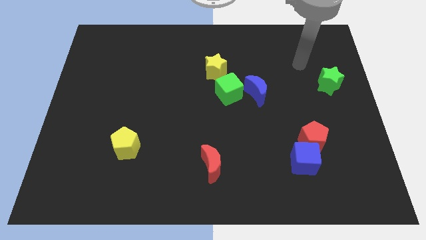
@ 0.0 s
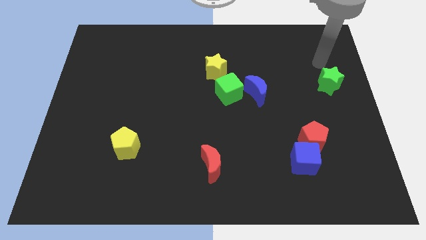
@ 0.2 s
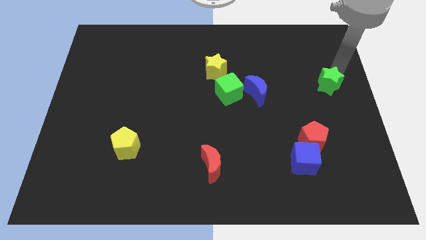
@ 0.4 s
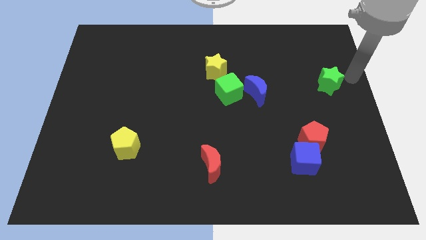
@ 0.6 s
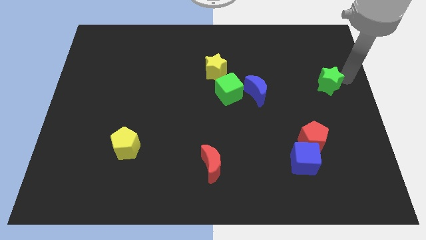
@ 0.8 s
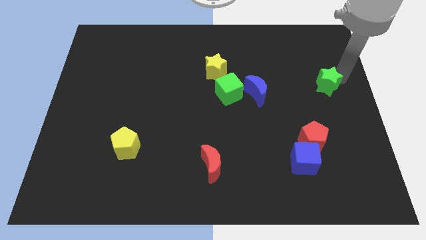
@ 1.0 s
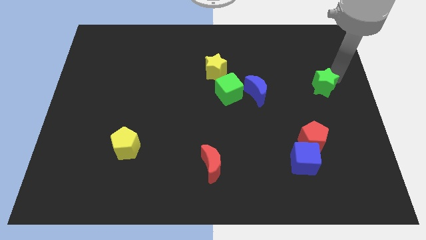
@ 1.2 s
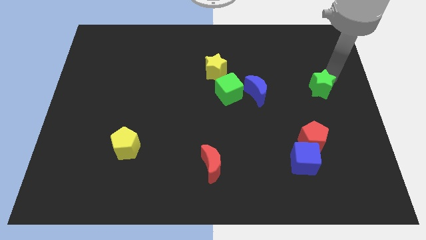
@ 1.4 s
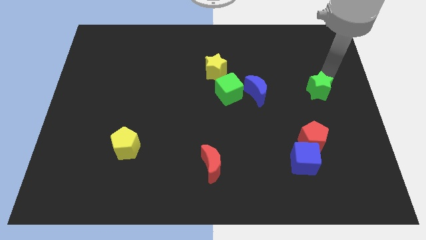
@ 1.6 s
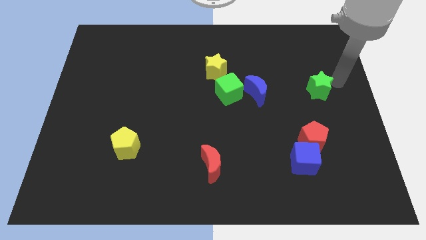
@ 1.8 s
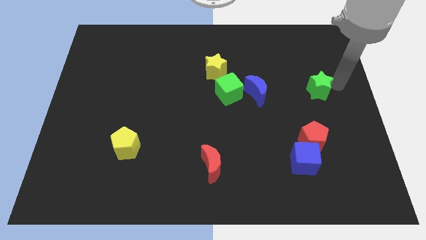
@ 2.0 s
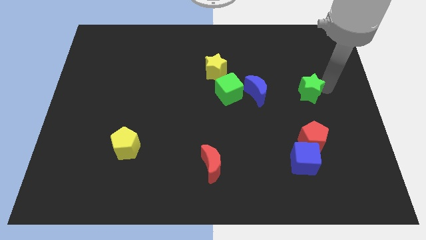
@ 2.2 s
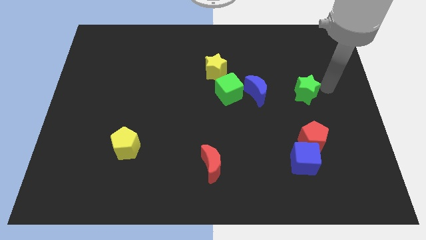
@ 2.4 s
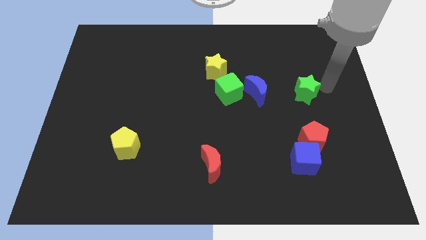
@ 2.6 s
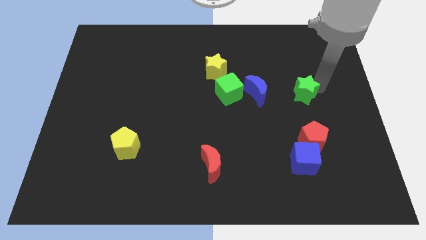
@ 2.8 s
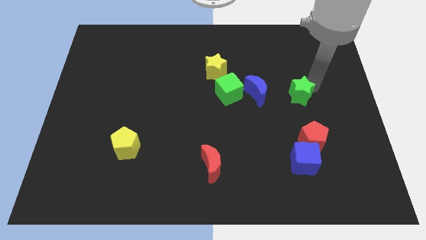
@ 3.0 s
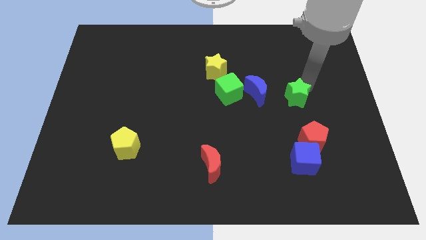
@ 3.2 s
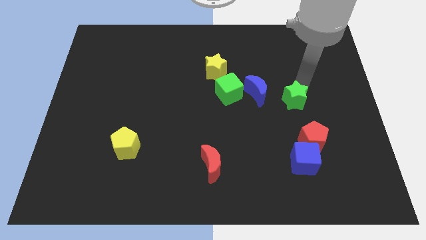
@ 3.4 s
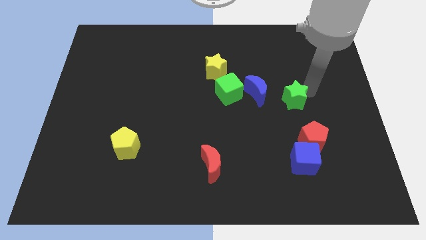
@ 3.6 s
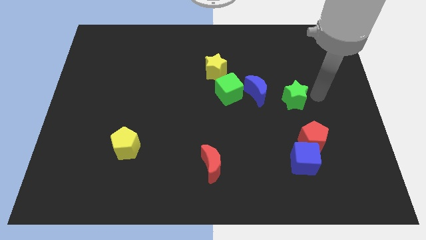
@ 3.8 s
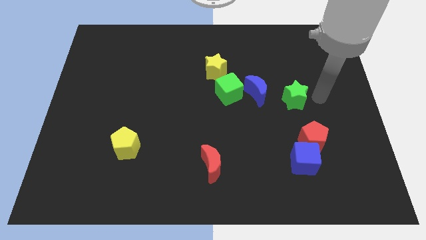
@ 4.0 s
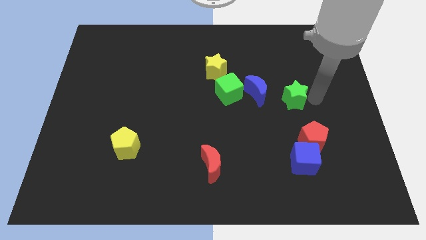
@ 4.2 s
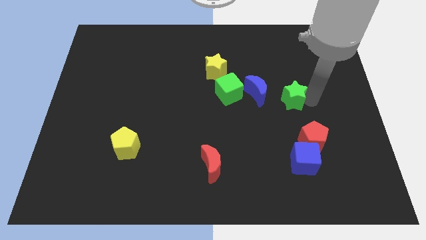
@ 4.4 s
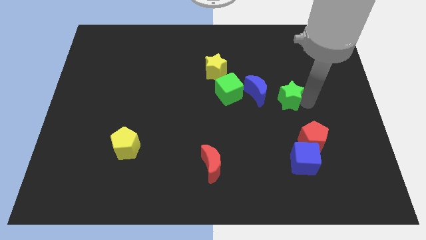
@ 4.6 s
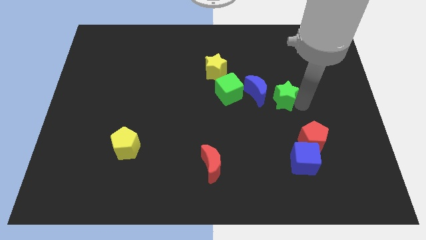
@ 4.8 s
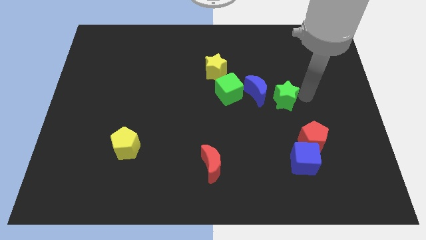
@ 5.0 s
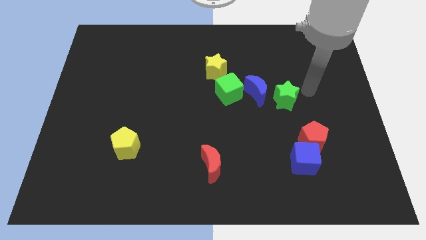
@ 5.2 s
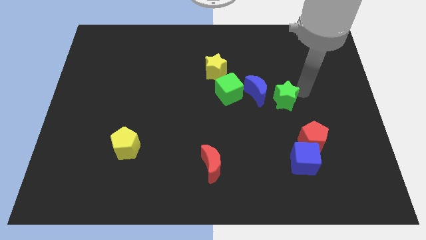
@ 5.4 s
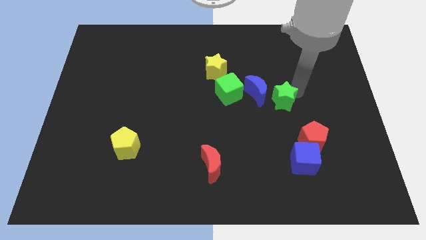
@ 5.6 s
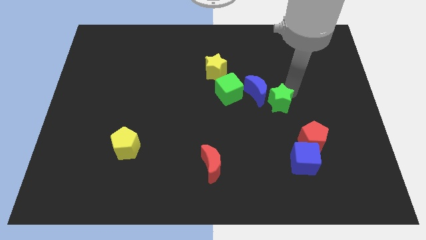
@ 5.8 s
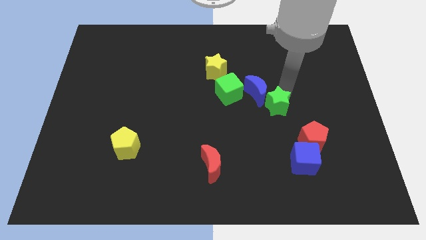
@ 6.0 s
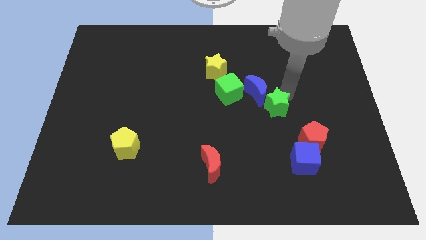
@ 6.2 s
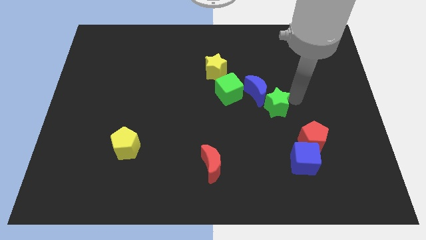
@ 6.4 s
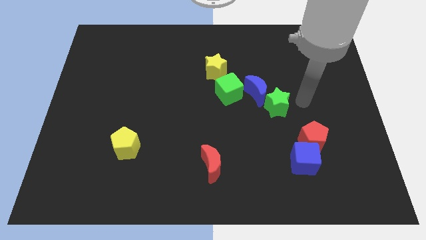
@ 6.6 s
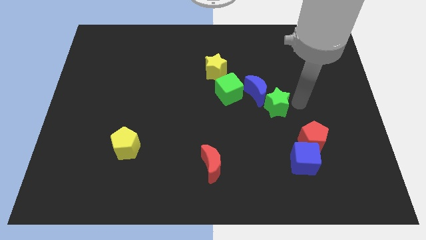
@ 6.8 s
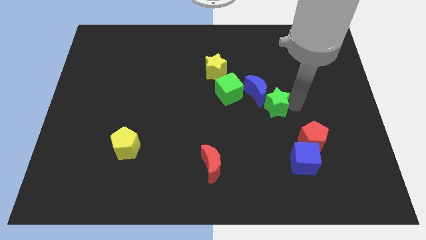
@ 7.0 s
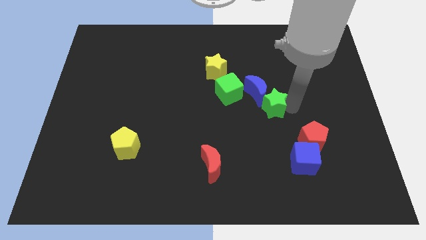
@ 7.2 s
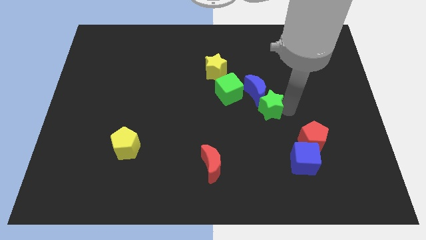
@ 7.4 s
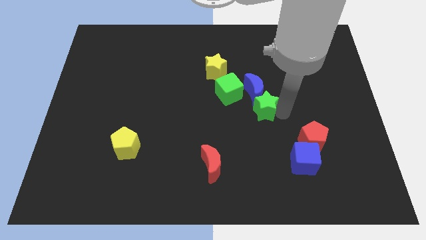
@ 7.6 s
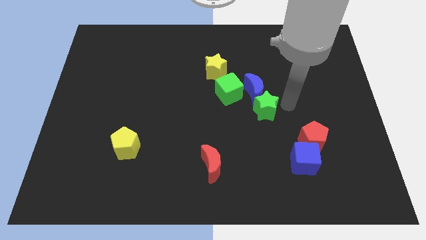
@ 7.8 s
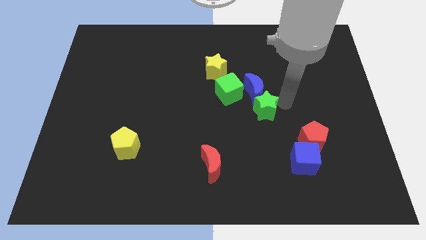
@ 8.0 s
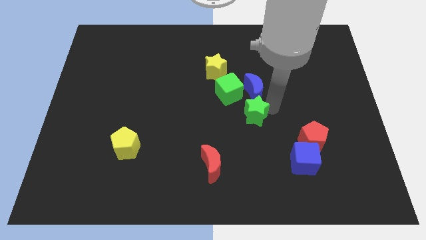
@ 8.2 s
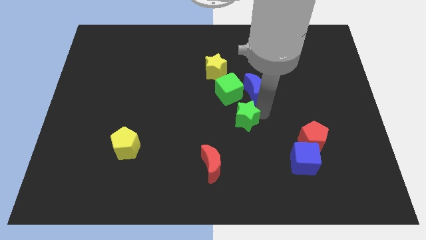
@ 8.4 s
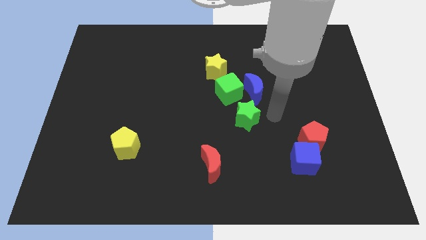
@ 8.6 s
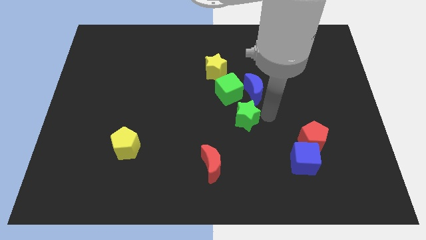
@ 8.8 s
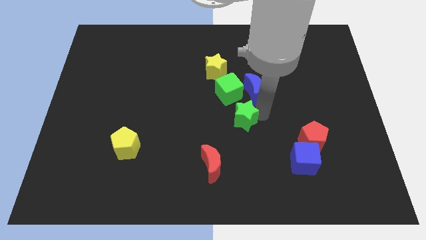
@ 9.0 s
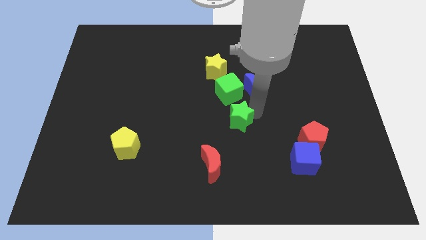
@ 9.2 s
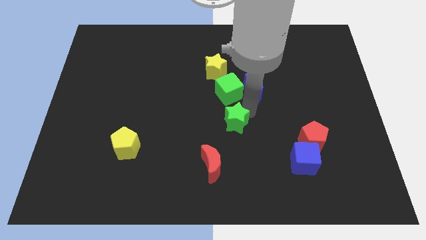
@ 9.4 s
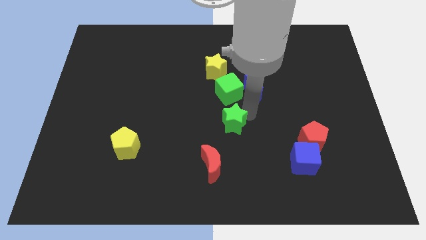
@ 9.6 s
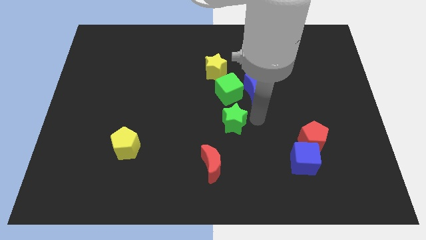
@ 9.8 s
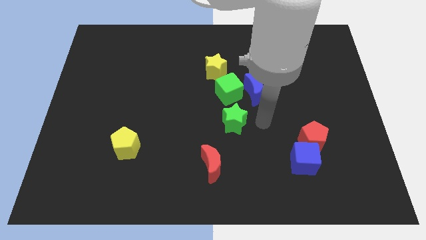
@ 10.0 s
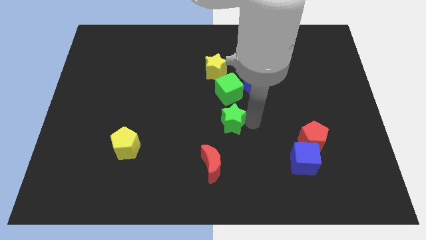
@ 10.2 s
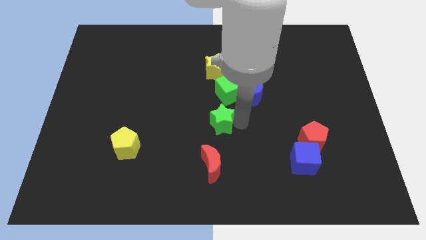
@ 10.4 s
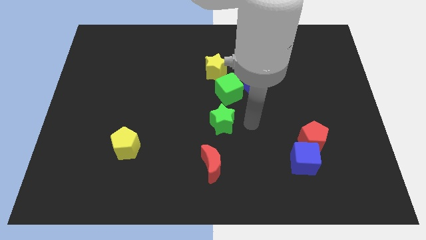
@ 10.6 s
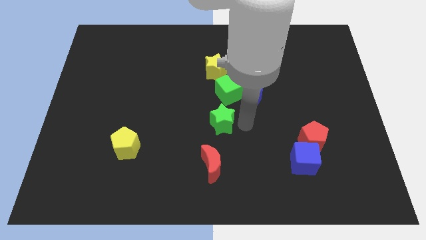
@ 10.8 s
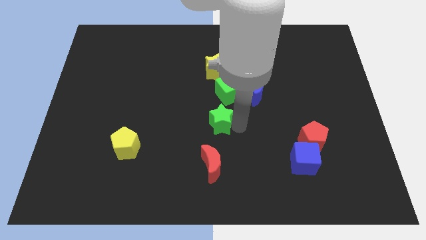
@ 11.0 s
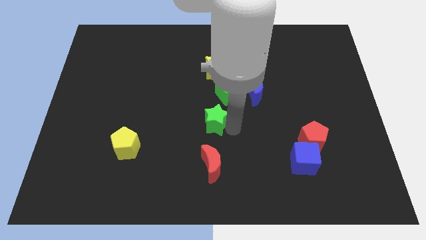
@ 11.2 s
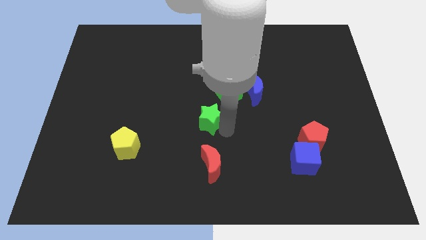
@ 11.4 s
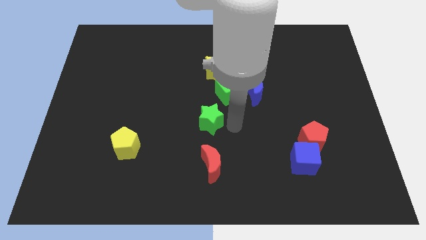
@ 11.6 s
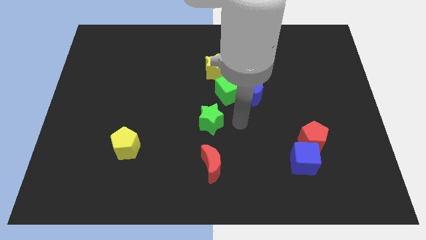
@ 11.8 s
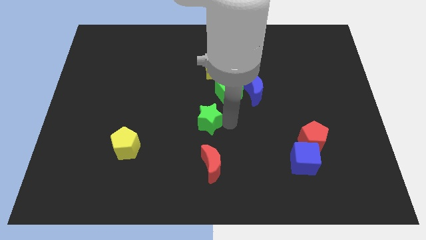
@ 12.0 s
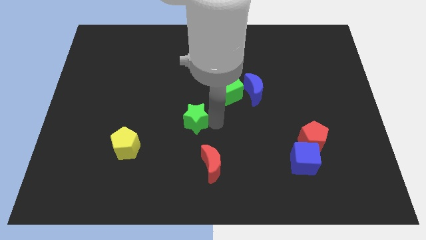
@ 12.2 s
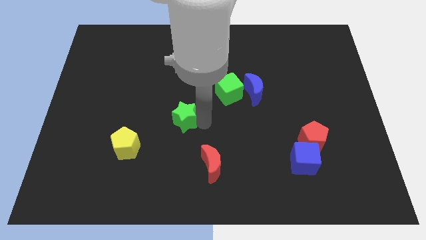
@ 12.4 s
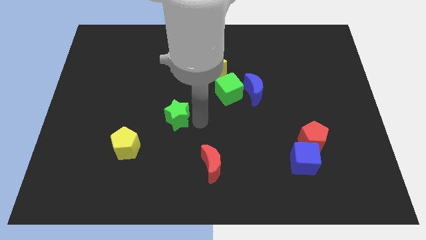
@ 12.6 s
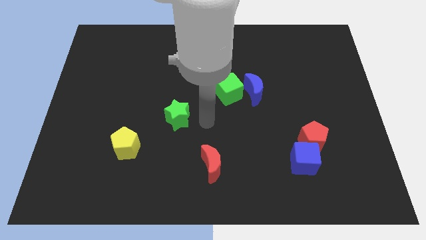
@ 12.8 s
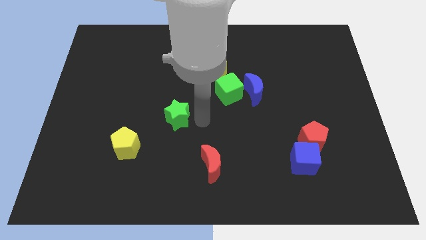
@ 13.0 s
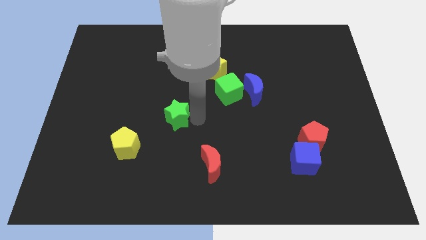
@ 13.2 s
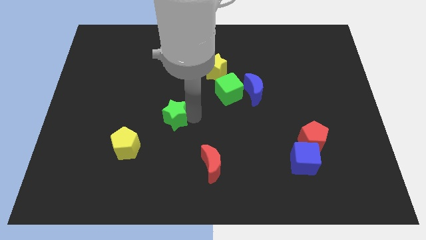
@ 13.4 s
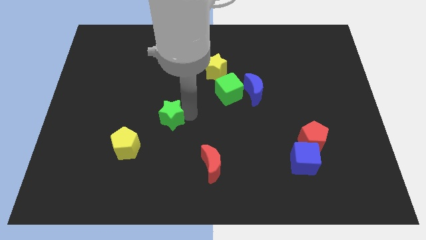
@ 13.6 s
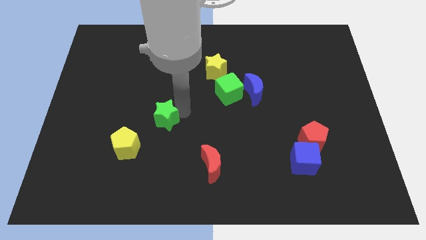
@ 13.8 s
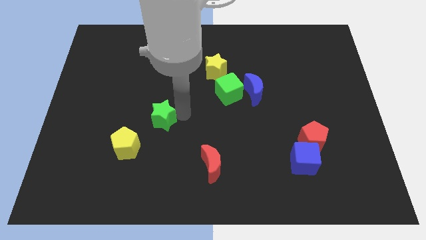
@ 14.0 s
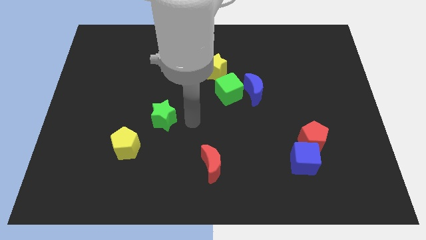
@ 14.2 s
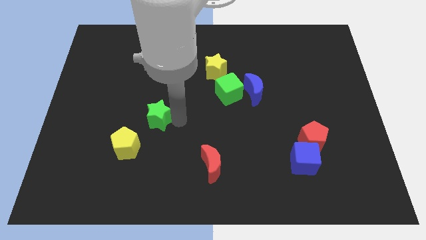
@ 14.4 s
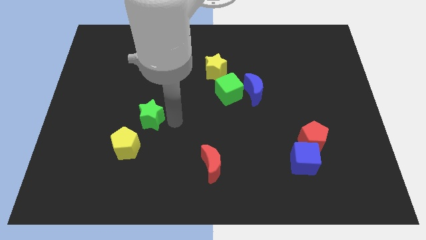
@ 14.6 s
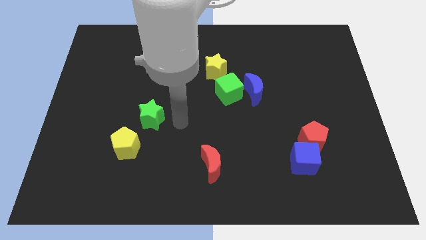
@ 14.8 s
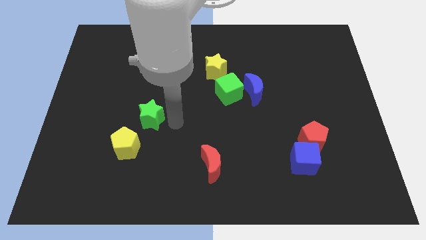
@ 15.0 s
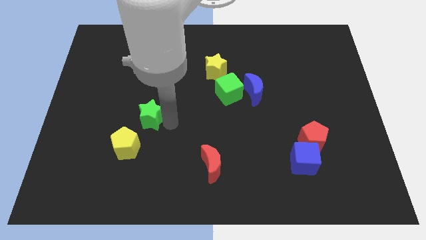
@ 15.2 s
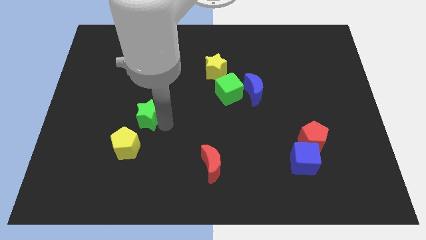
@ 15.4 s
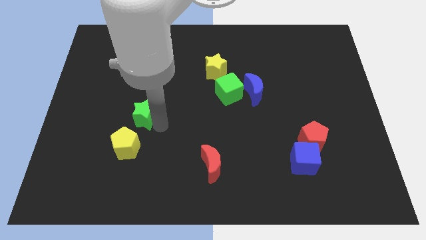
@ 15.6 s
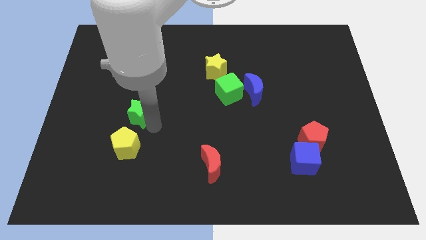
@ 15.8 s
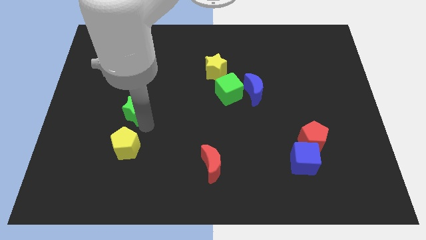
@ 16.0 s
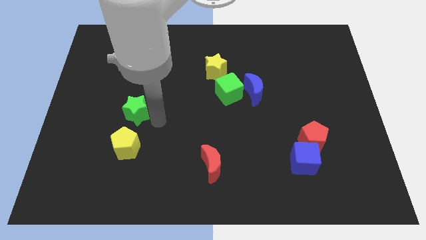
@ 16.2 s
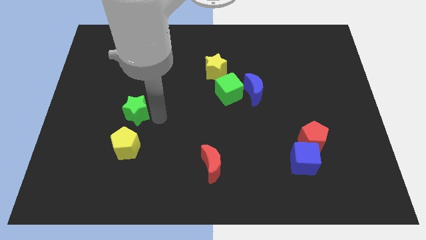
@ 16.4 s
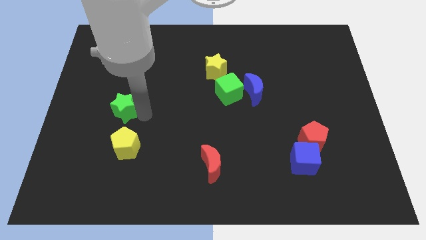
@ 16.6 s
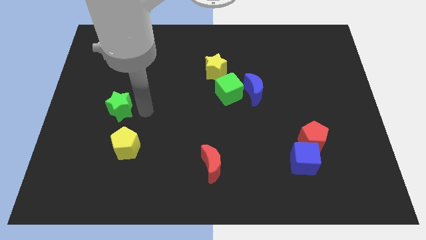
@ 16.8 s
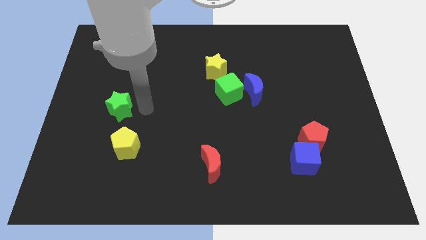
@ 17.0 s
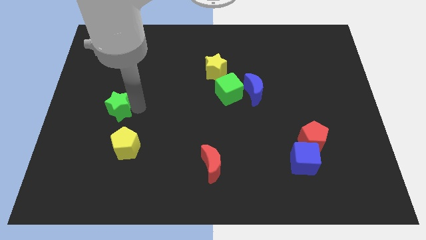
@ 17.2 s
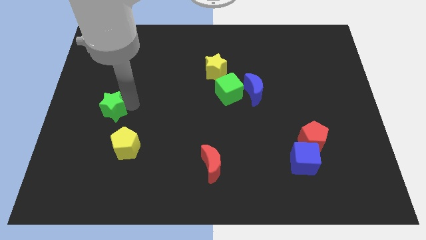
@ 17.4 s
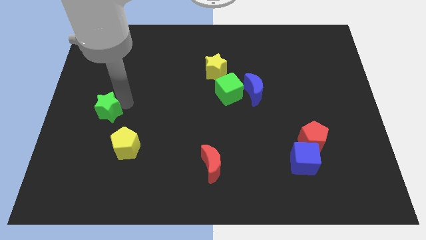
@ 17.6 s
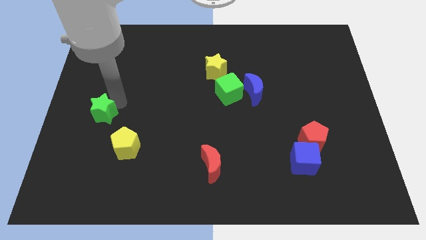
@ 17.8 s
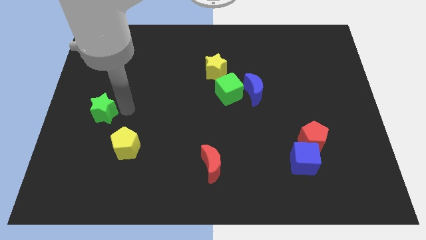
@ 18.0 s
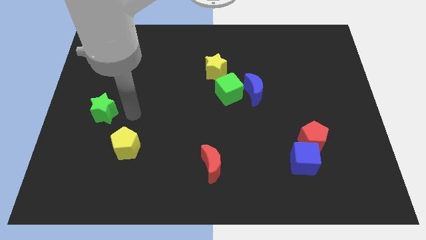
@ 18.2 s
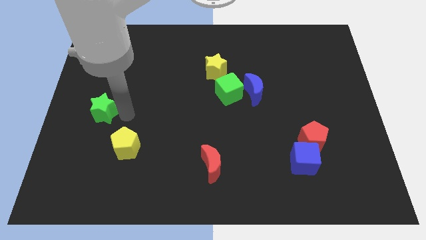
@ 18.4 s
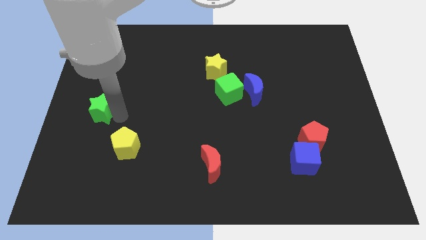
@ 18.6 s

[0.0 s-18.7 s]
move the green star to the left side
